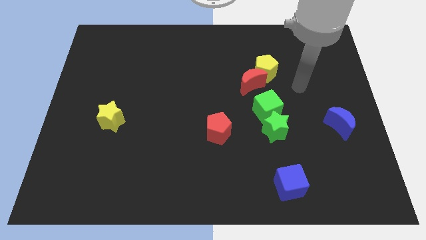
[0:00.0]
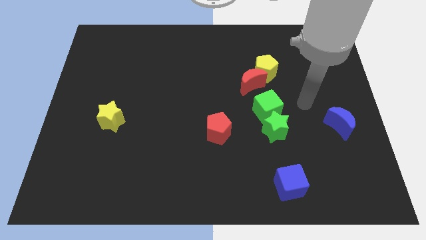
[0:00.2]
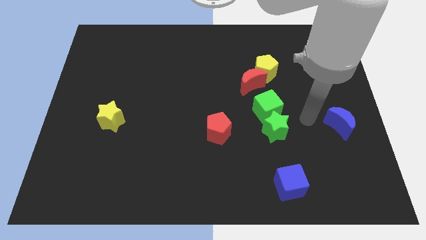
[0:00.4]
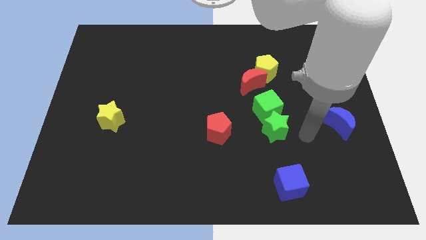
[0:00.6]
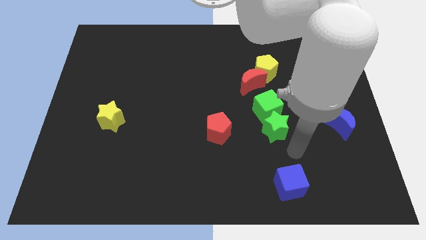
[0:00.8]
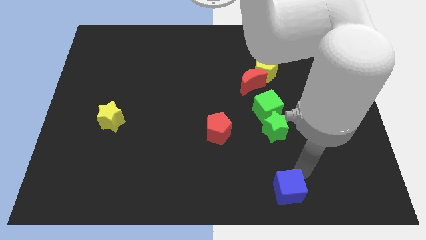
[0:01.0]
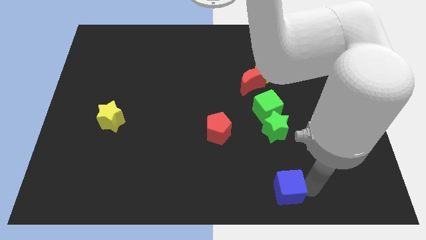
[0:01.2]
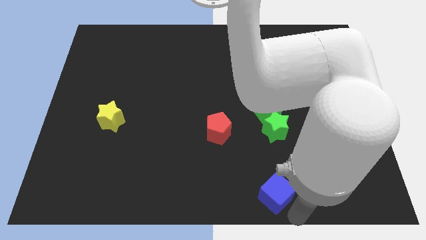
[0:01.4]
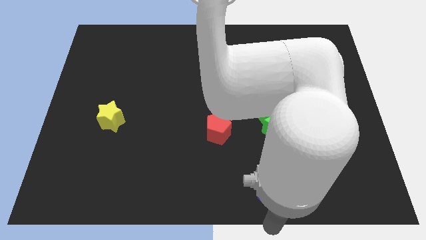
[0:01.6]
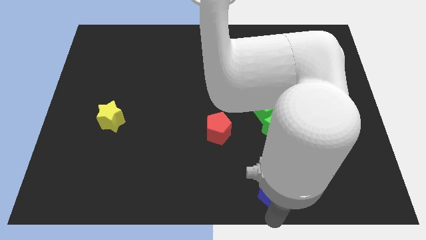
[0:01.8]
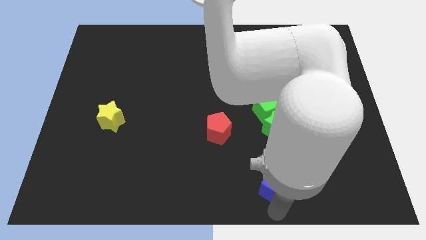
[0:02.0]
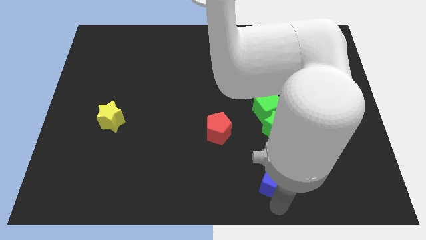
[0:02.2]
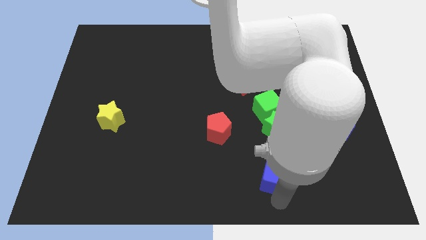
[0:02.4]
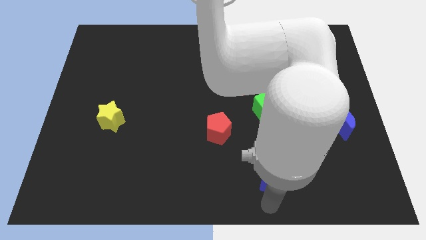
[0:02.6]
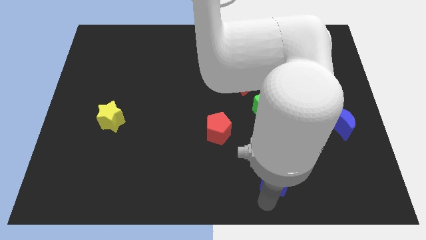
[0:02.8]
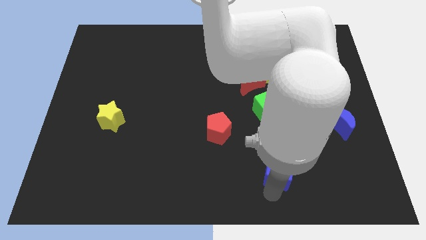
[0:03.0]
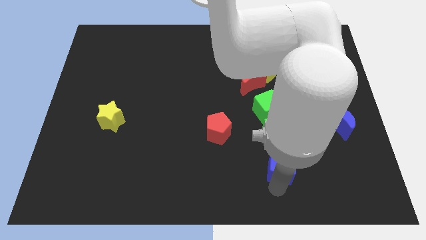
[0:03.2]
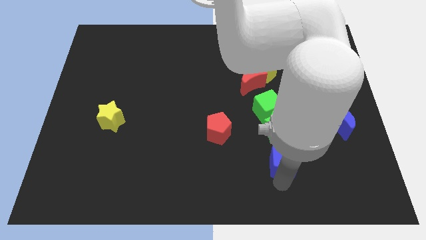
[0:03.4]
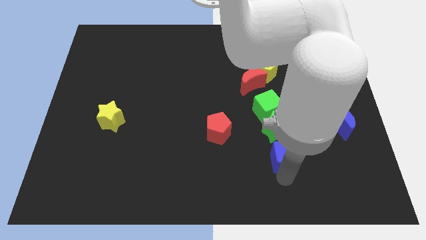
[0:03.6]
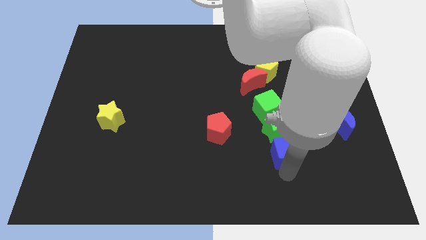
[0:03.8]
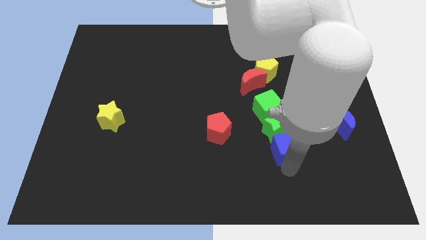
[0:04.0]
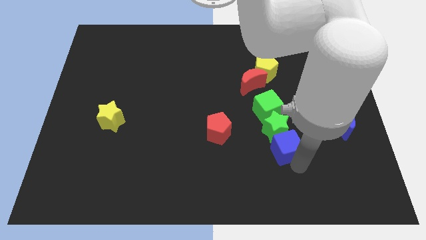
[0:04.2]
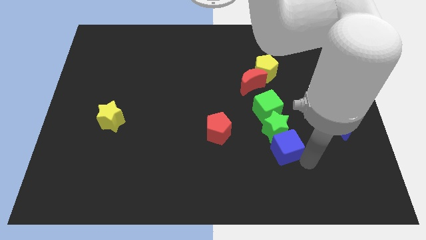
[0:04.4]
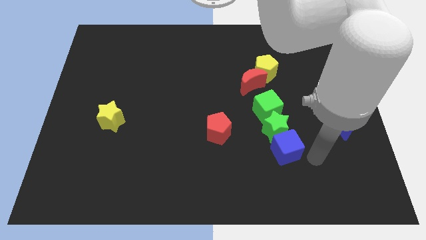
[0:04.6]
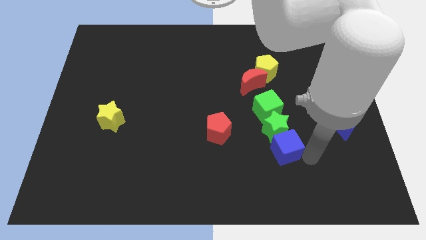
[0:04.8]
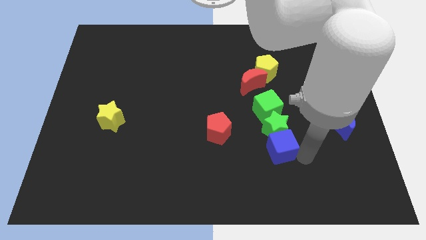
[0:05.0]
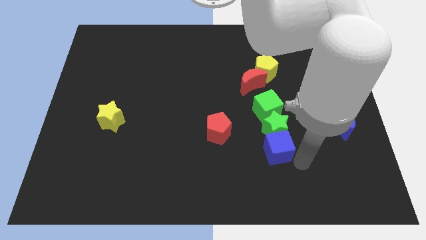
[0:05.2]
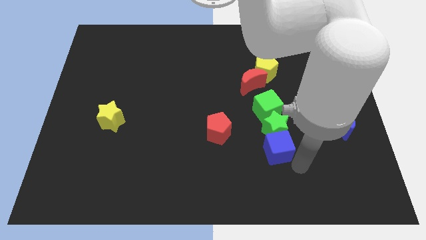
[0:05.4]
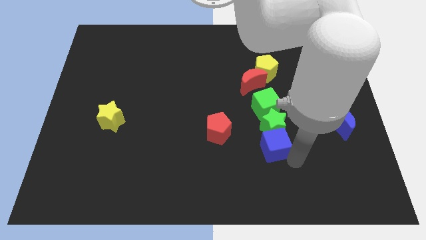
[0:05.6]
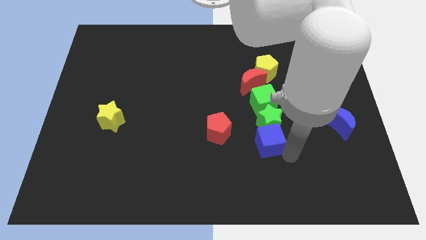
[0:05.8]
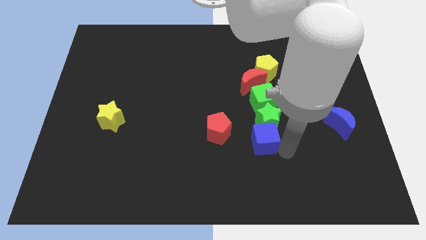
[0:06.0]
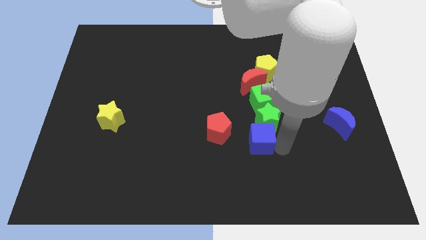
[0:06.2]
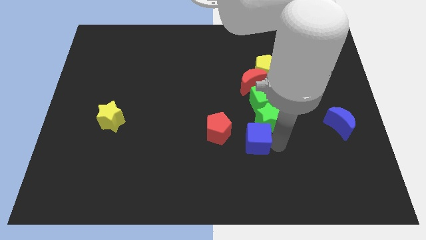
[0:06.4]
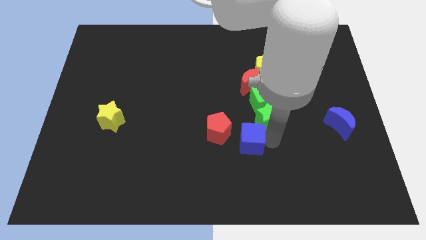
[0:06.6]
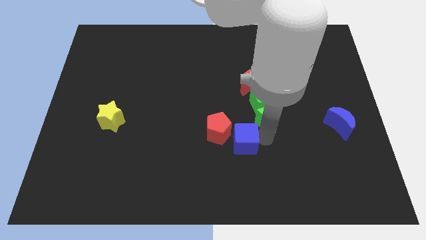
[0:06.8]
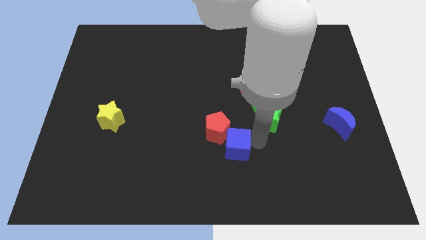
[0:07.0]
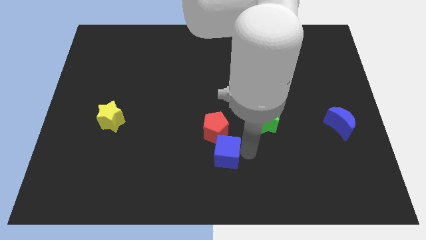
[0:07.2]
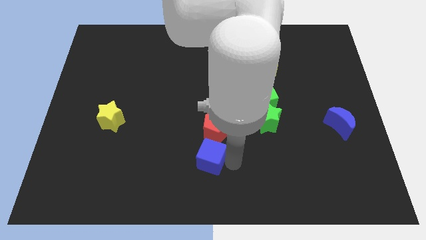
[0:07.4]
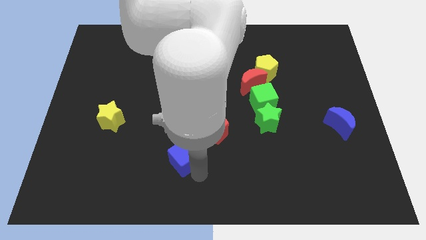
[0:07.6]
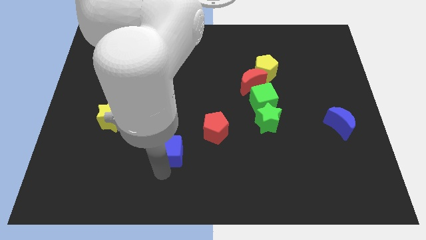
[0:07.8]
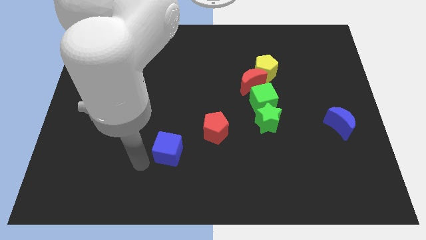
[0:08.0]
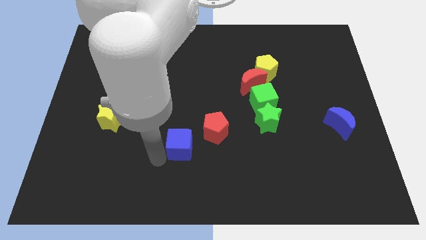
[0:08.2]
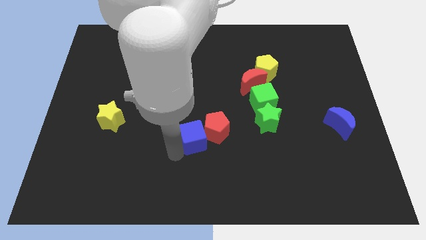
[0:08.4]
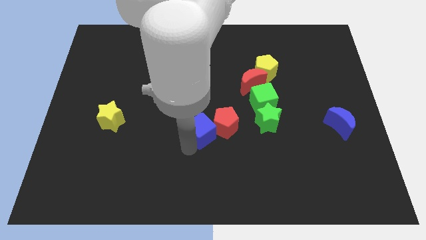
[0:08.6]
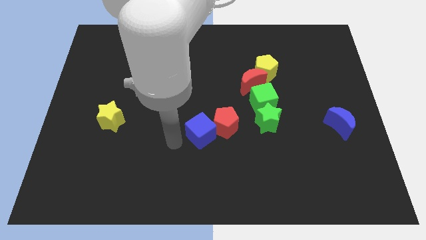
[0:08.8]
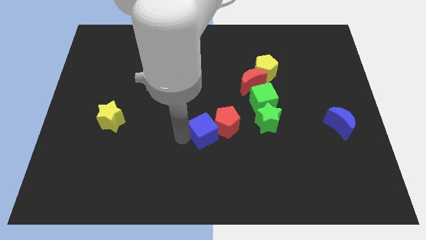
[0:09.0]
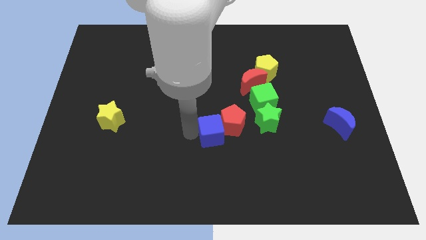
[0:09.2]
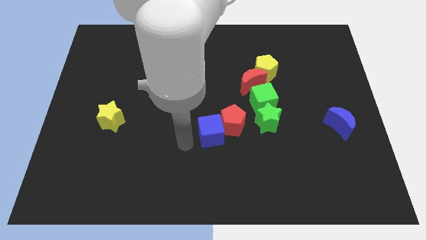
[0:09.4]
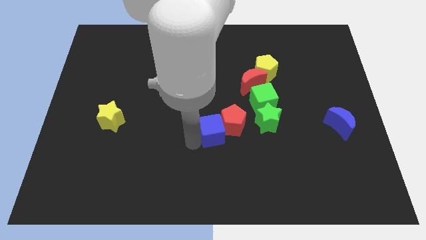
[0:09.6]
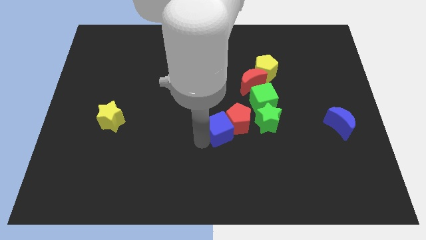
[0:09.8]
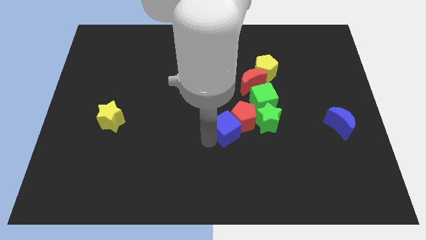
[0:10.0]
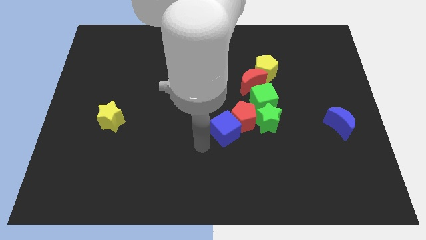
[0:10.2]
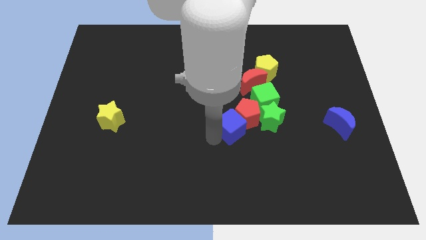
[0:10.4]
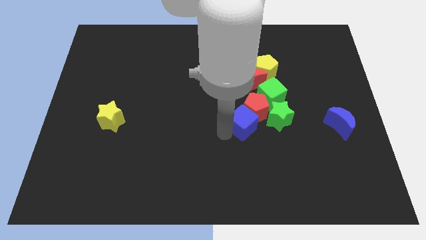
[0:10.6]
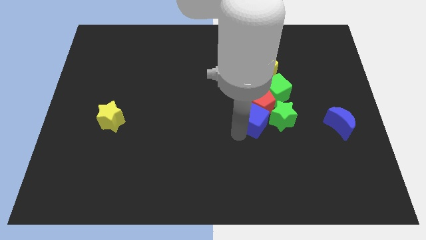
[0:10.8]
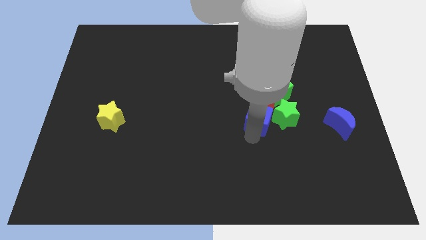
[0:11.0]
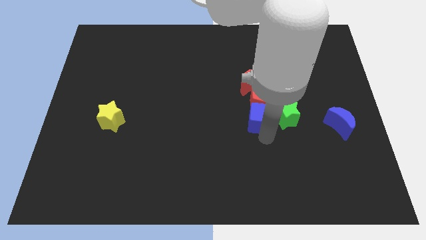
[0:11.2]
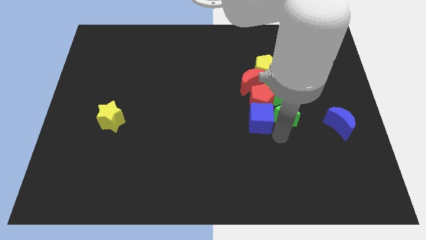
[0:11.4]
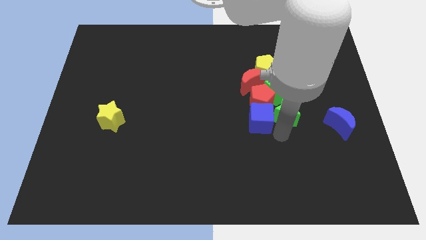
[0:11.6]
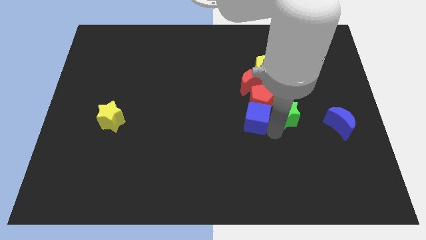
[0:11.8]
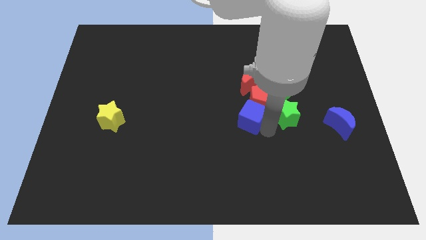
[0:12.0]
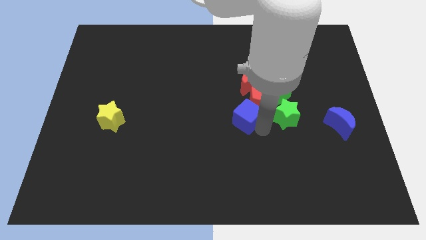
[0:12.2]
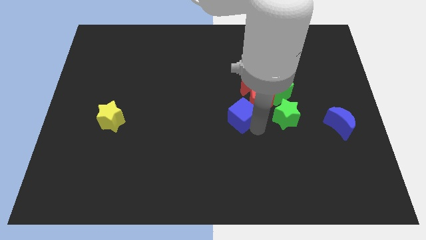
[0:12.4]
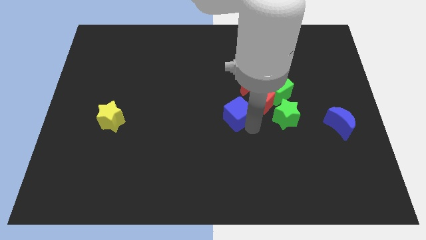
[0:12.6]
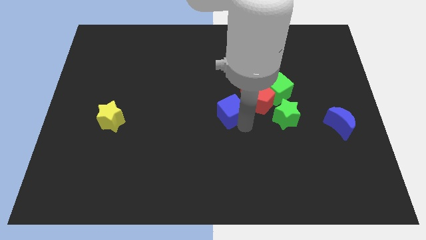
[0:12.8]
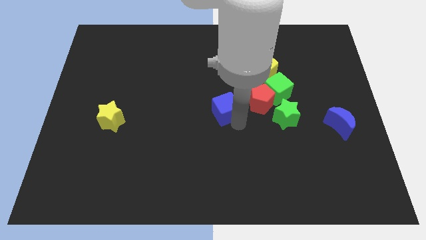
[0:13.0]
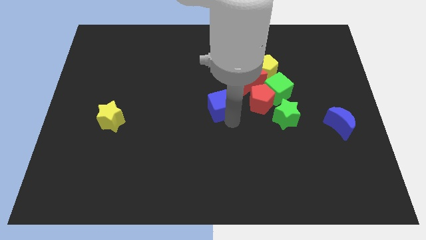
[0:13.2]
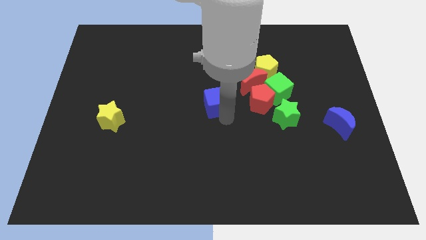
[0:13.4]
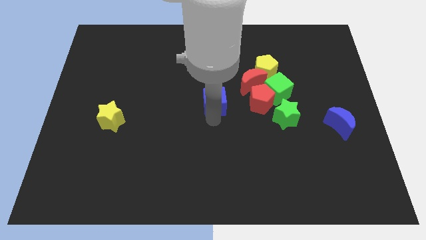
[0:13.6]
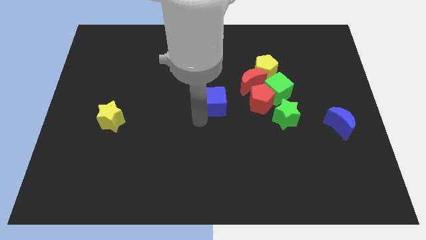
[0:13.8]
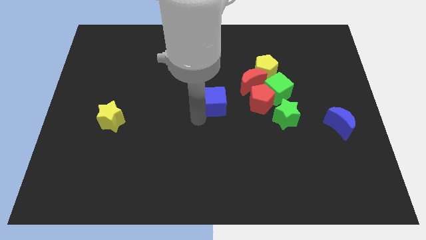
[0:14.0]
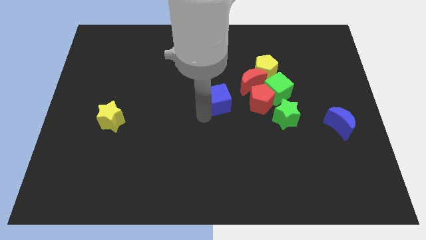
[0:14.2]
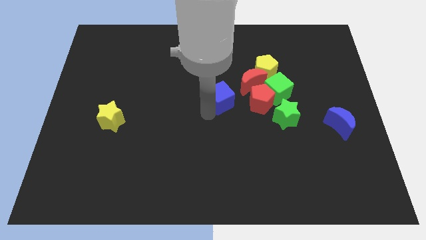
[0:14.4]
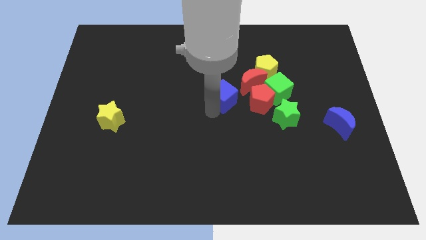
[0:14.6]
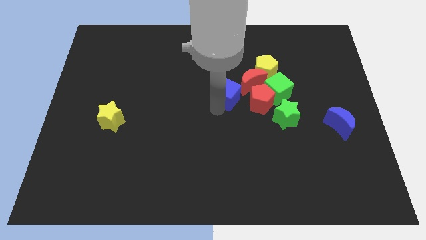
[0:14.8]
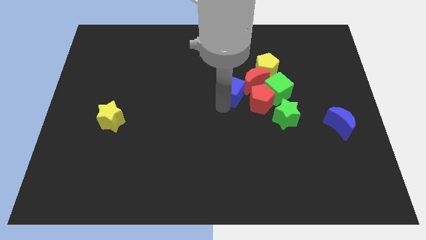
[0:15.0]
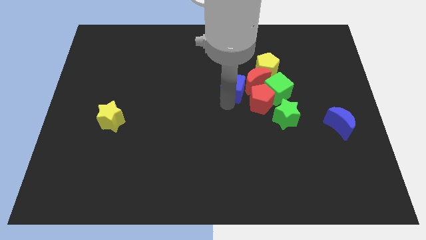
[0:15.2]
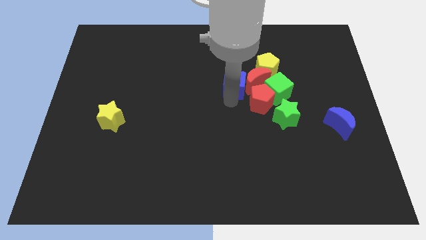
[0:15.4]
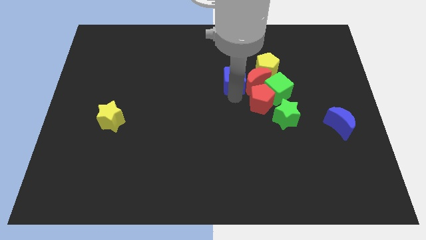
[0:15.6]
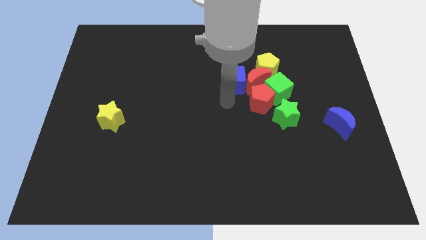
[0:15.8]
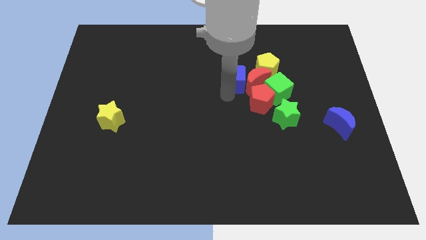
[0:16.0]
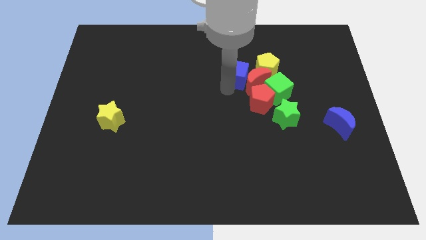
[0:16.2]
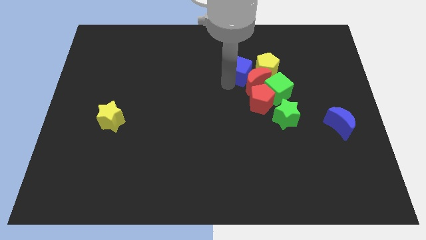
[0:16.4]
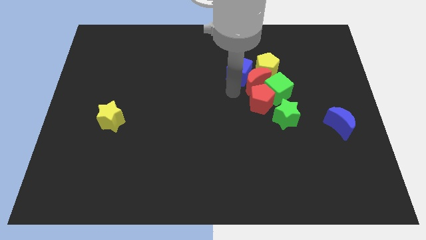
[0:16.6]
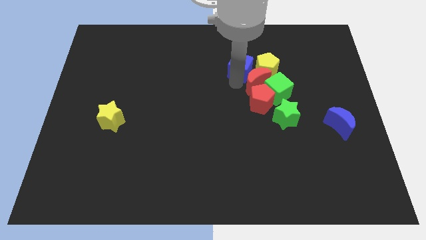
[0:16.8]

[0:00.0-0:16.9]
push the blue cube to the top left side of the yellow pentagon
